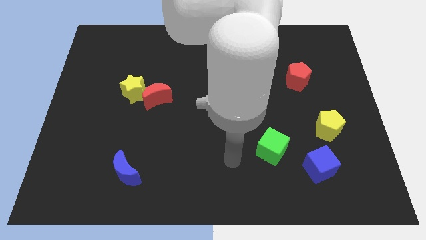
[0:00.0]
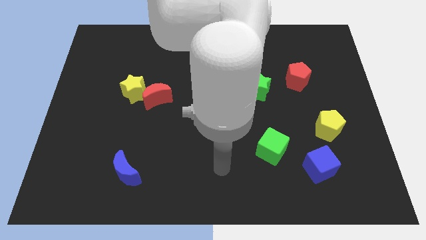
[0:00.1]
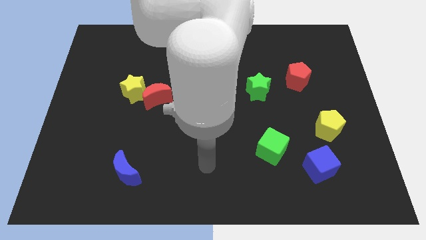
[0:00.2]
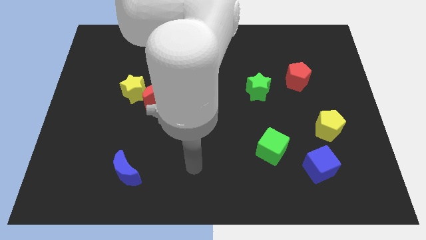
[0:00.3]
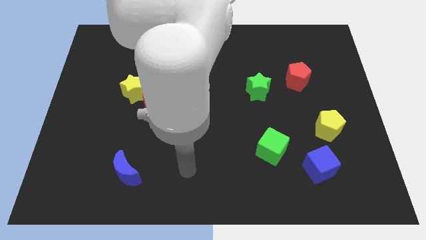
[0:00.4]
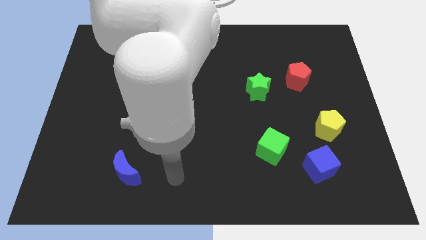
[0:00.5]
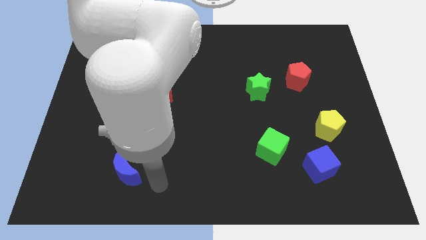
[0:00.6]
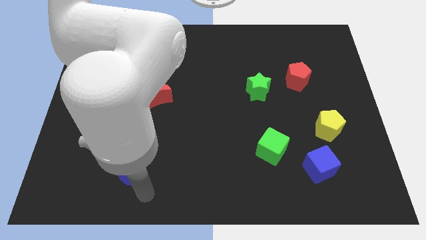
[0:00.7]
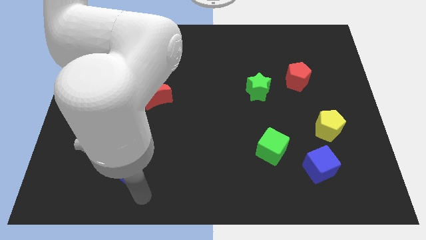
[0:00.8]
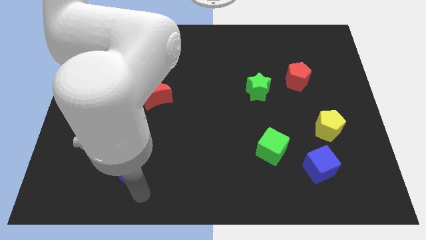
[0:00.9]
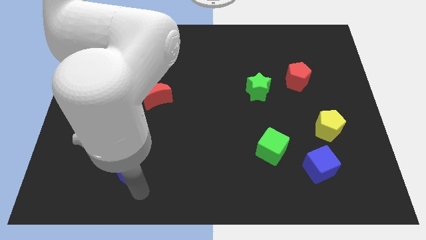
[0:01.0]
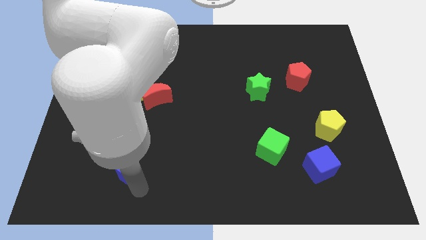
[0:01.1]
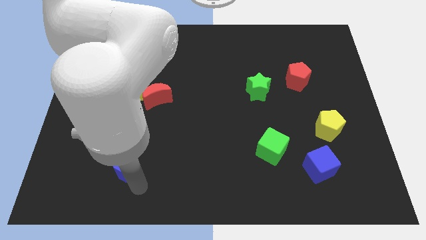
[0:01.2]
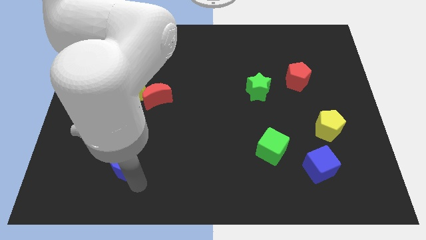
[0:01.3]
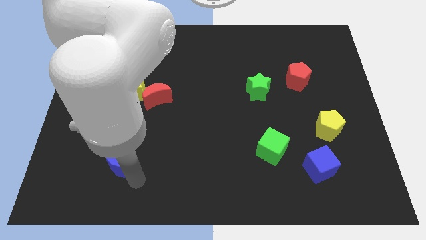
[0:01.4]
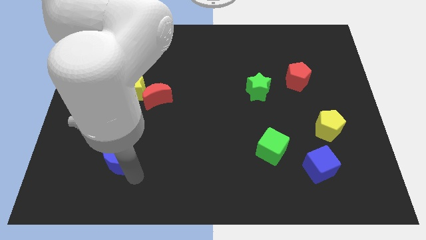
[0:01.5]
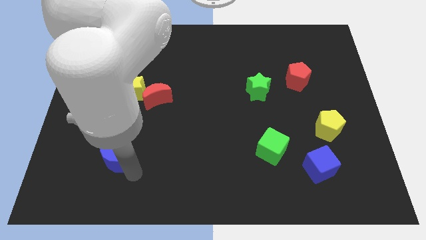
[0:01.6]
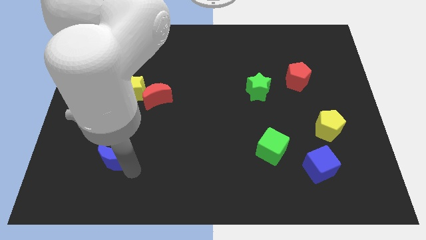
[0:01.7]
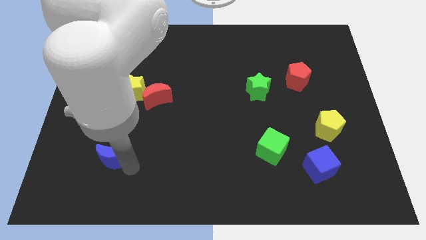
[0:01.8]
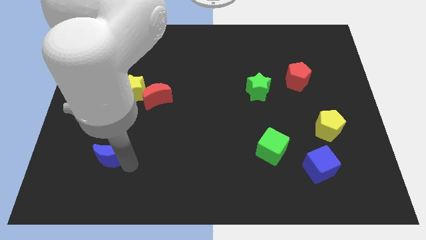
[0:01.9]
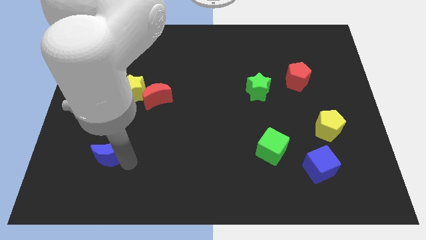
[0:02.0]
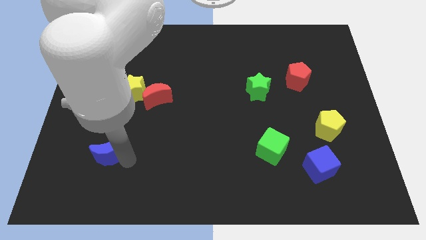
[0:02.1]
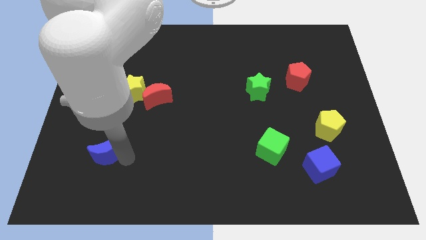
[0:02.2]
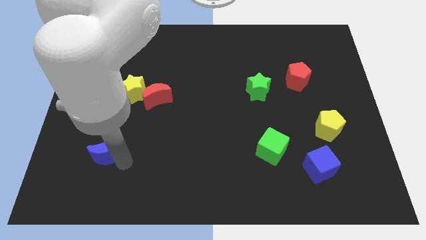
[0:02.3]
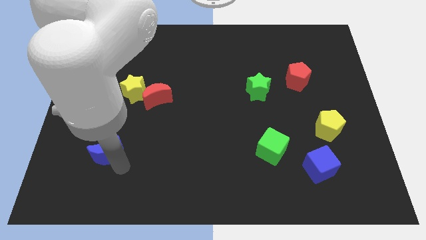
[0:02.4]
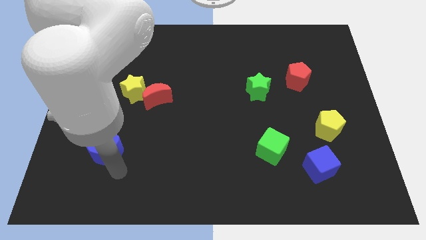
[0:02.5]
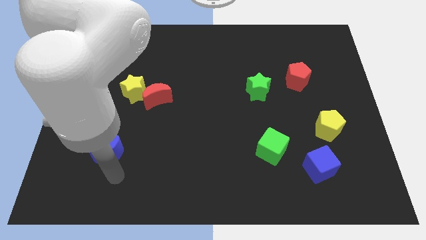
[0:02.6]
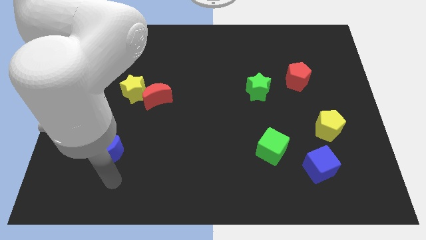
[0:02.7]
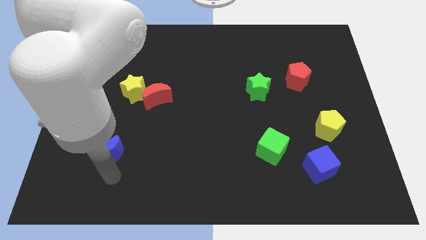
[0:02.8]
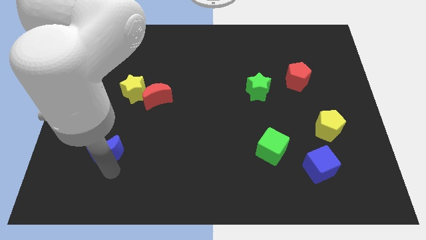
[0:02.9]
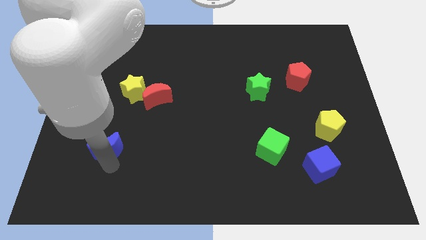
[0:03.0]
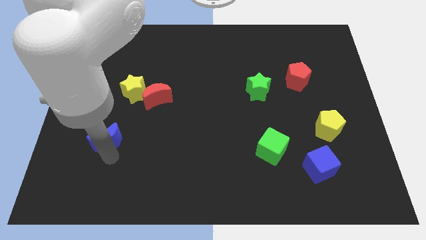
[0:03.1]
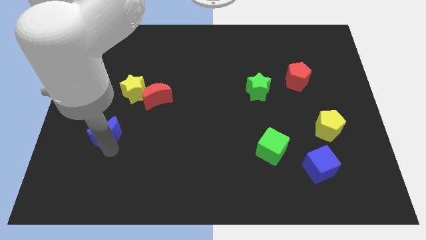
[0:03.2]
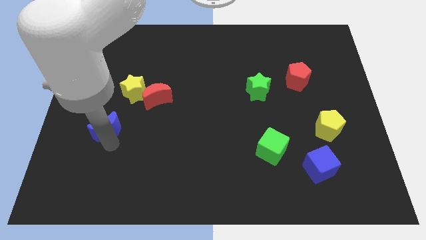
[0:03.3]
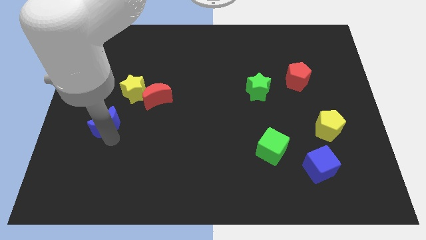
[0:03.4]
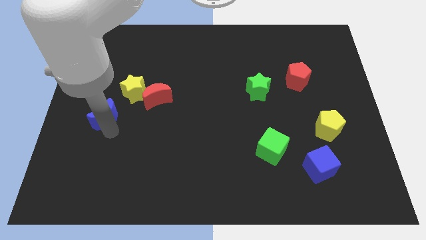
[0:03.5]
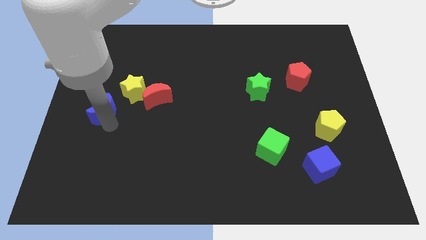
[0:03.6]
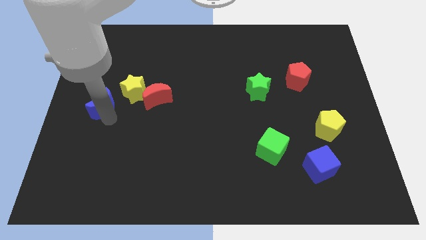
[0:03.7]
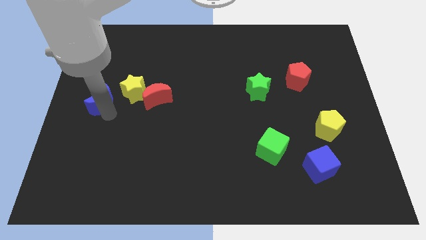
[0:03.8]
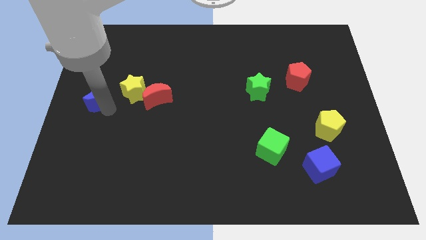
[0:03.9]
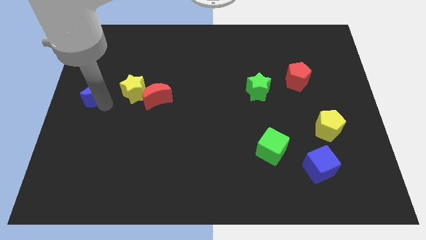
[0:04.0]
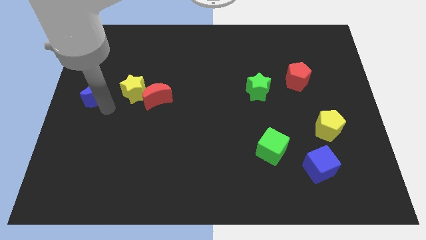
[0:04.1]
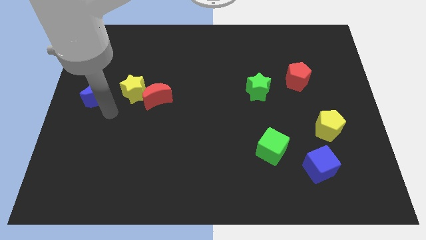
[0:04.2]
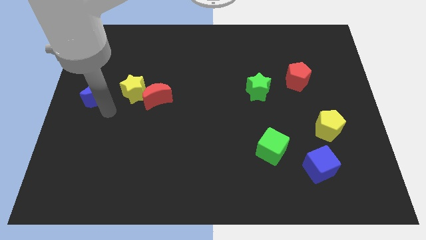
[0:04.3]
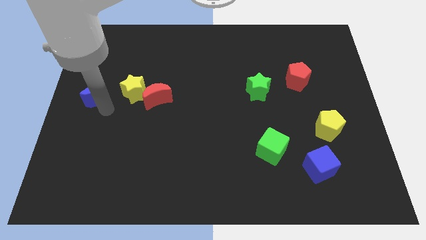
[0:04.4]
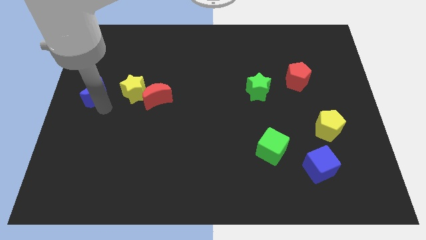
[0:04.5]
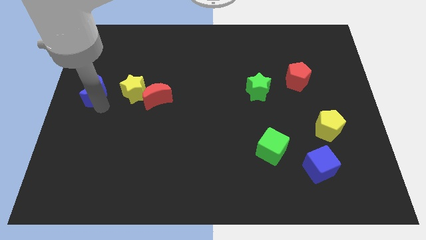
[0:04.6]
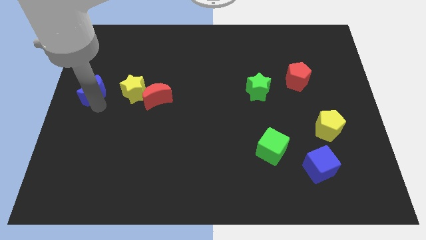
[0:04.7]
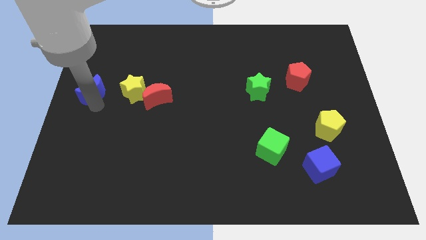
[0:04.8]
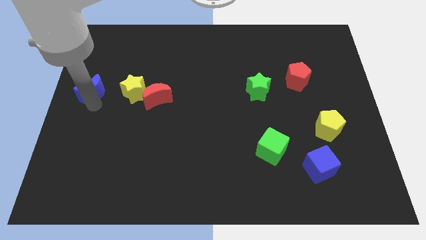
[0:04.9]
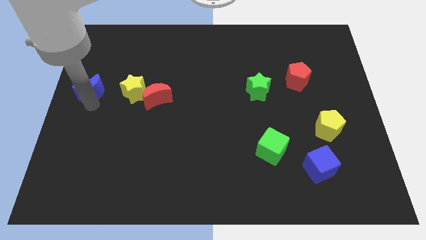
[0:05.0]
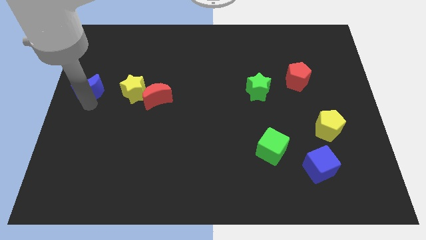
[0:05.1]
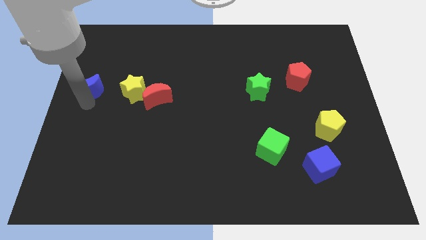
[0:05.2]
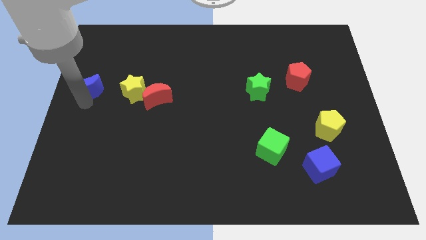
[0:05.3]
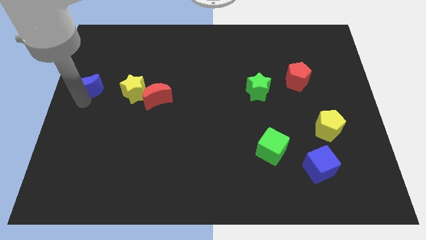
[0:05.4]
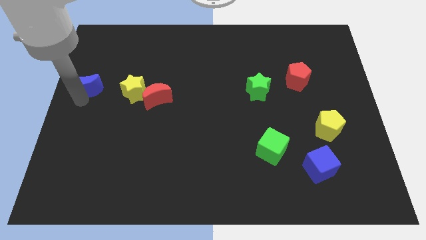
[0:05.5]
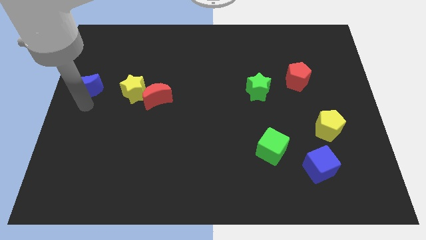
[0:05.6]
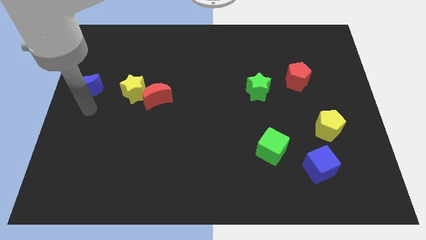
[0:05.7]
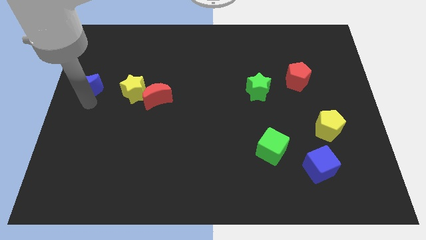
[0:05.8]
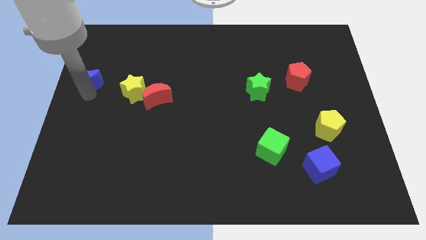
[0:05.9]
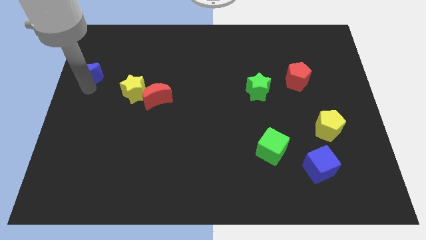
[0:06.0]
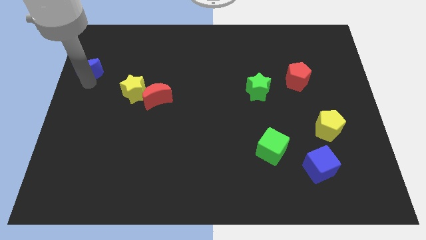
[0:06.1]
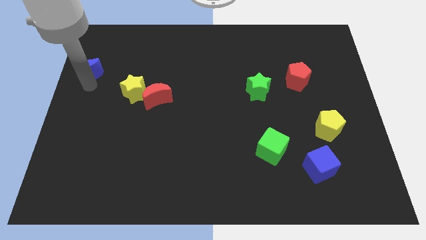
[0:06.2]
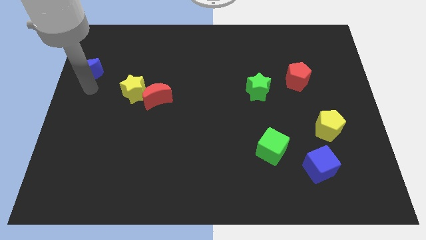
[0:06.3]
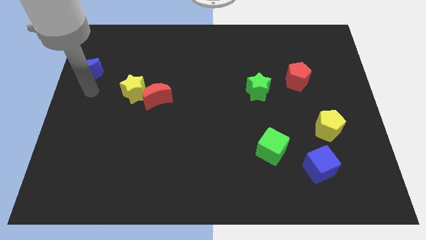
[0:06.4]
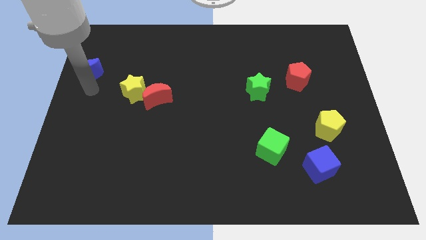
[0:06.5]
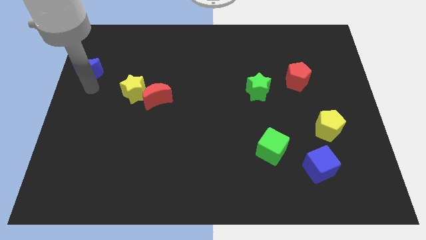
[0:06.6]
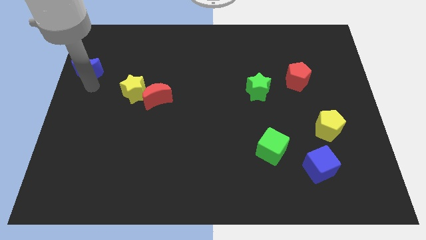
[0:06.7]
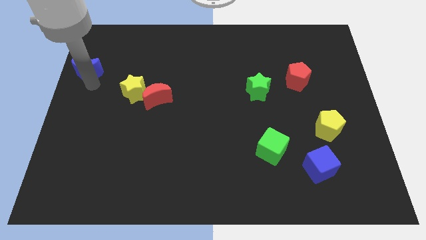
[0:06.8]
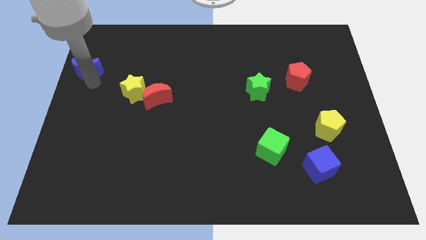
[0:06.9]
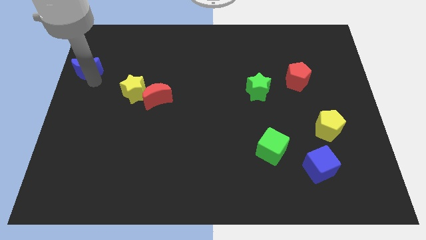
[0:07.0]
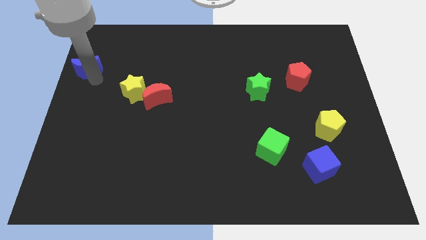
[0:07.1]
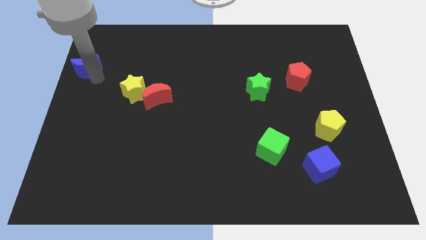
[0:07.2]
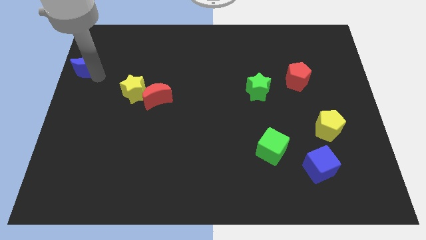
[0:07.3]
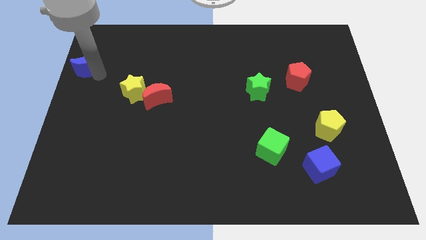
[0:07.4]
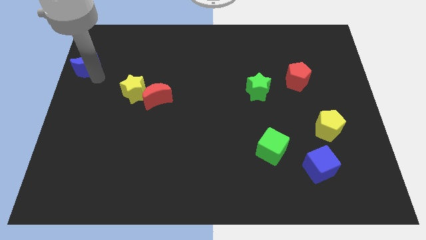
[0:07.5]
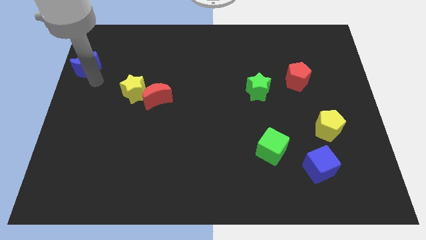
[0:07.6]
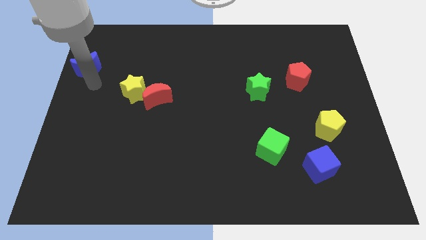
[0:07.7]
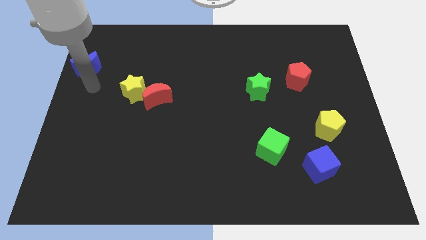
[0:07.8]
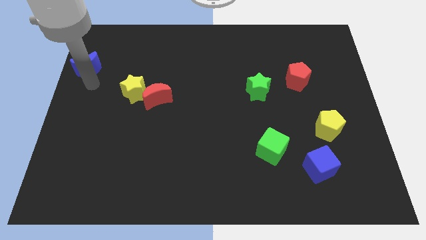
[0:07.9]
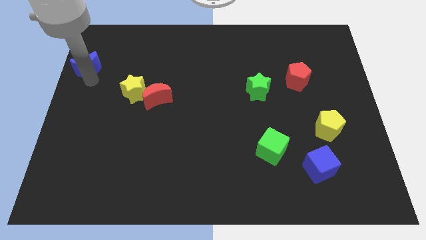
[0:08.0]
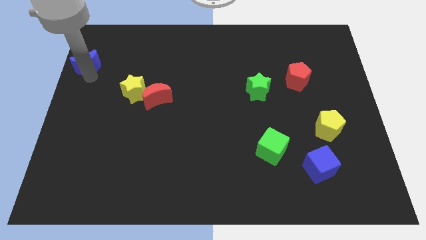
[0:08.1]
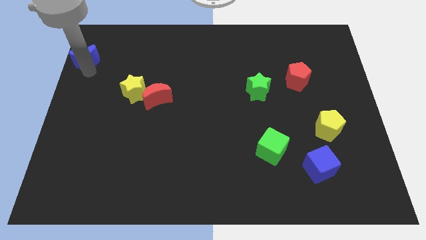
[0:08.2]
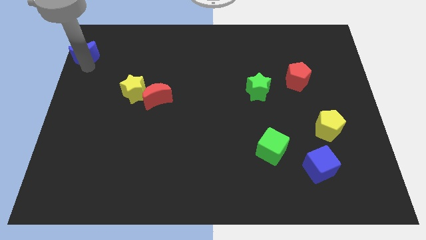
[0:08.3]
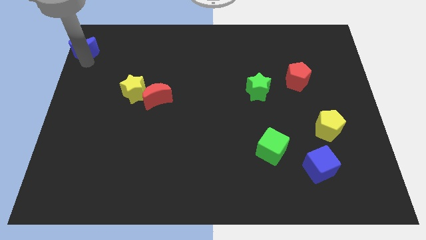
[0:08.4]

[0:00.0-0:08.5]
push the blue moon to the upper left corner
